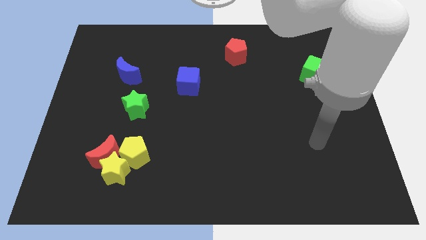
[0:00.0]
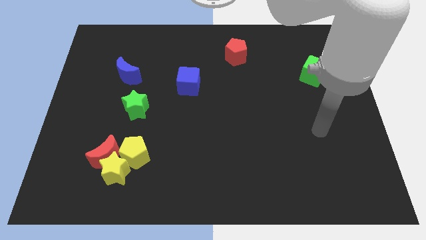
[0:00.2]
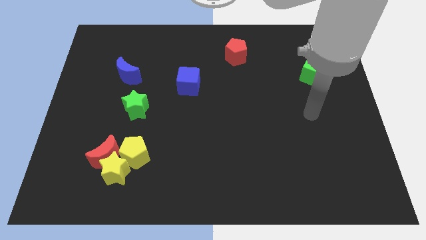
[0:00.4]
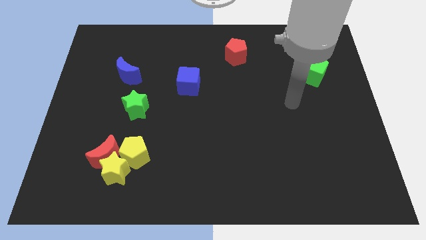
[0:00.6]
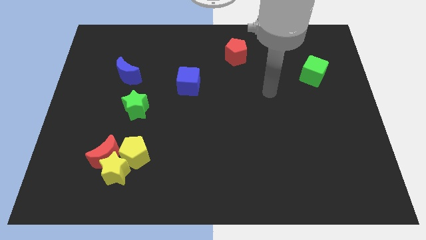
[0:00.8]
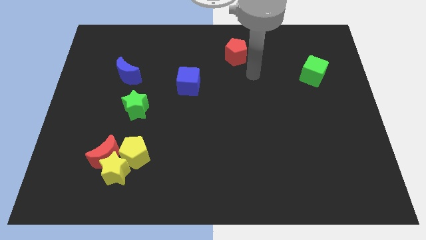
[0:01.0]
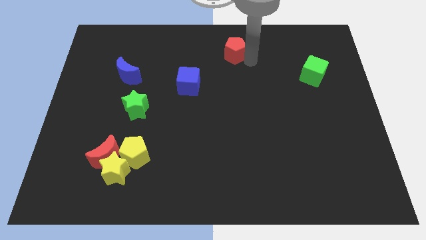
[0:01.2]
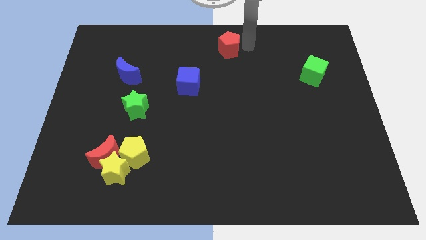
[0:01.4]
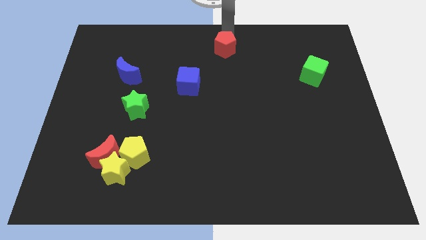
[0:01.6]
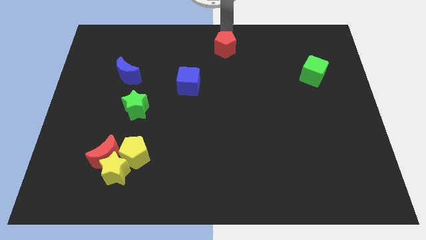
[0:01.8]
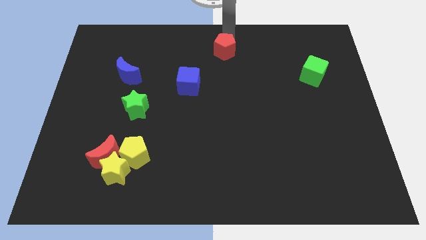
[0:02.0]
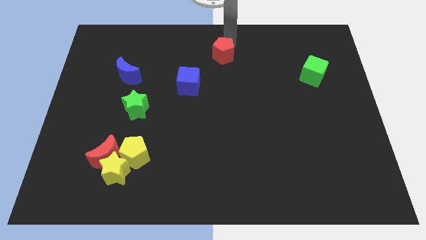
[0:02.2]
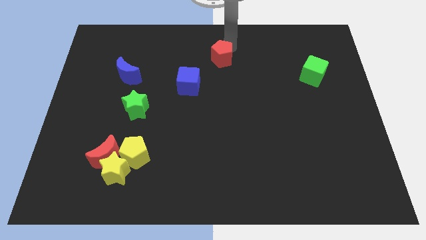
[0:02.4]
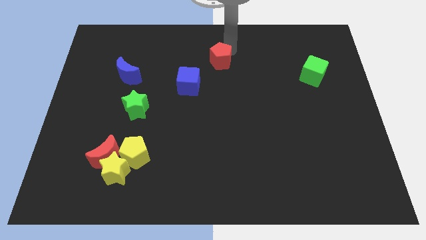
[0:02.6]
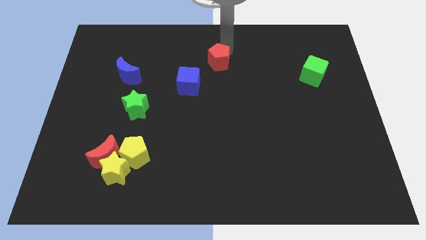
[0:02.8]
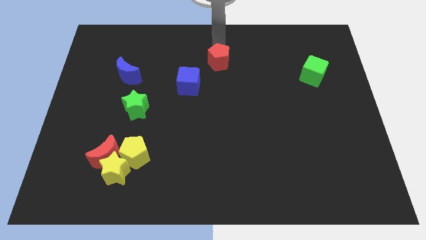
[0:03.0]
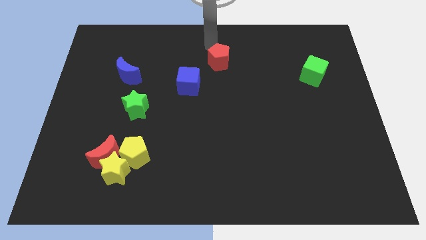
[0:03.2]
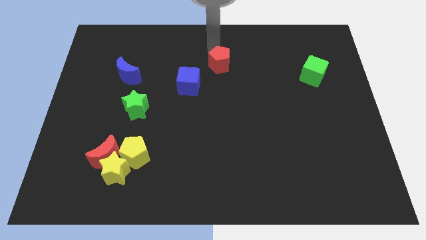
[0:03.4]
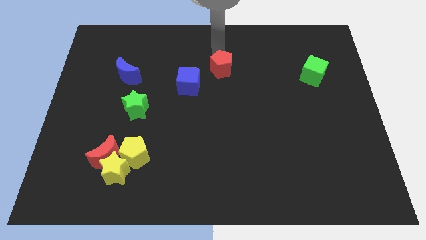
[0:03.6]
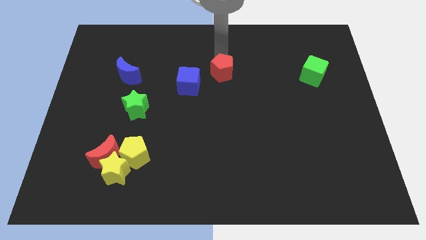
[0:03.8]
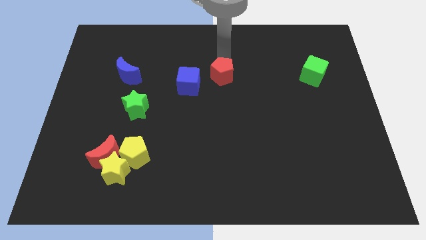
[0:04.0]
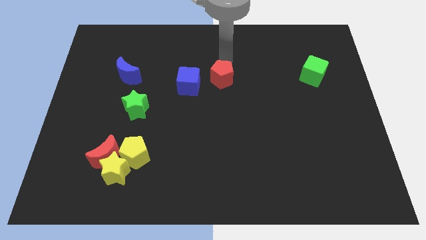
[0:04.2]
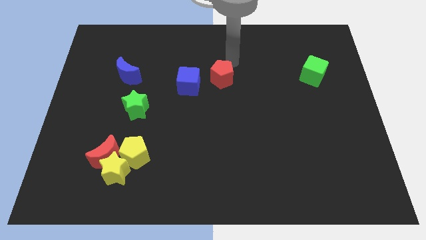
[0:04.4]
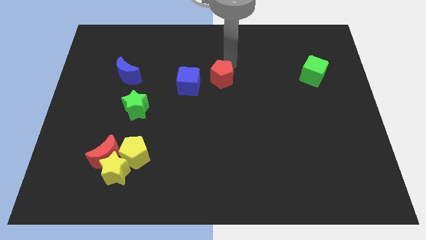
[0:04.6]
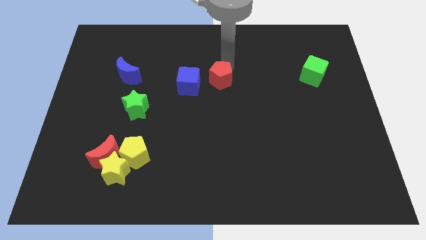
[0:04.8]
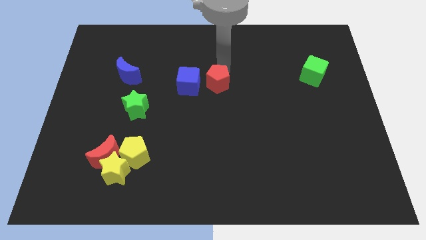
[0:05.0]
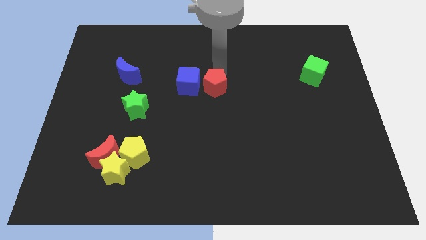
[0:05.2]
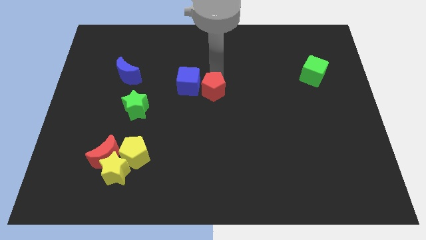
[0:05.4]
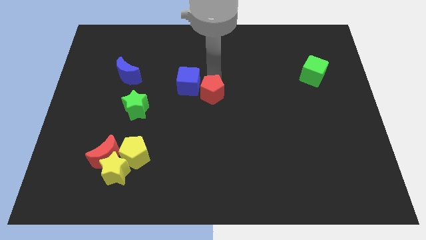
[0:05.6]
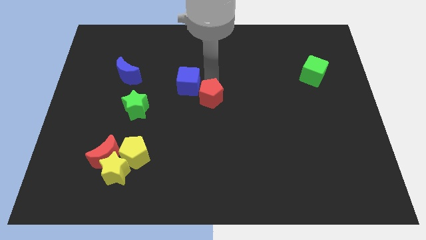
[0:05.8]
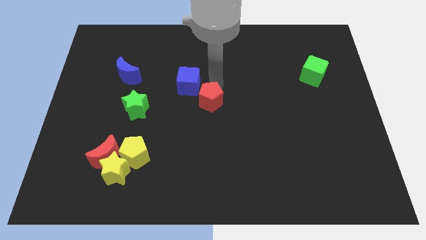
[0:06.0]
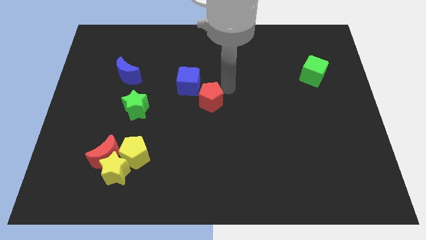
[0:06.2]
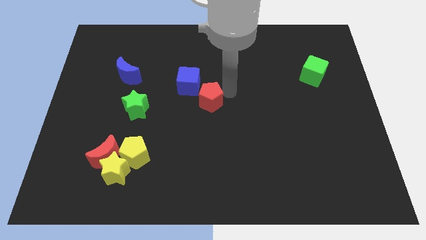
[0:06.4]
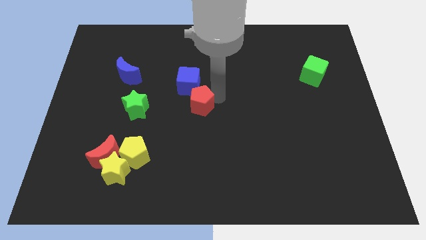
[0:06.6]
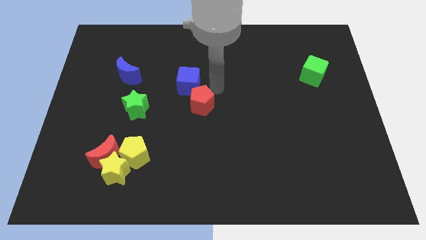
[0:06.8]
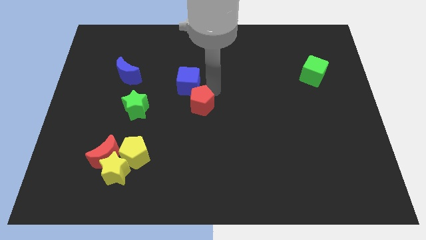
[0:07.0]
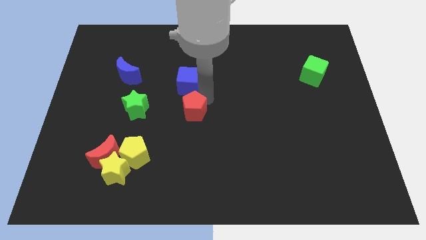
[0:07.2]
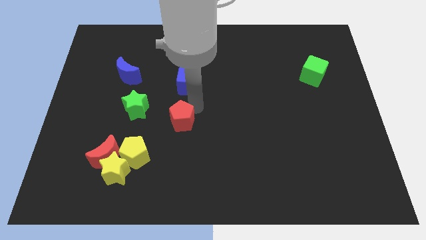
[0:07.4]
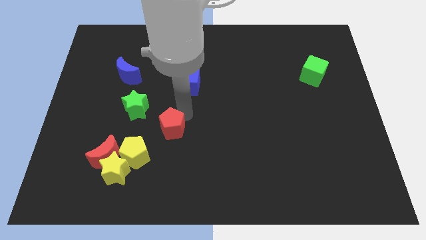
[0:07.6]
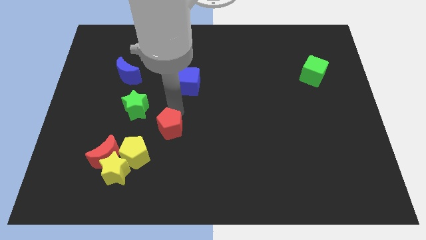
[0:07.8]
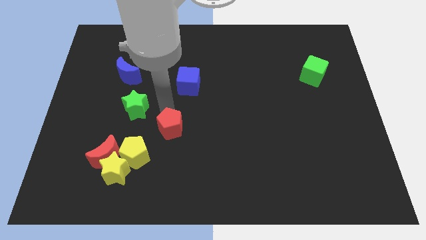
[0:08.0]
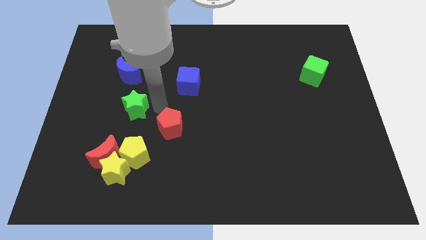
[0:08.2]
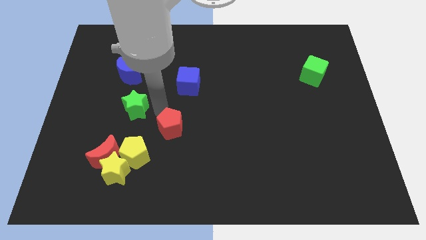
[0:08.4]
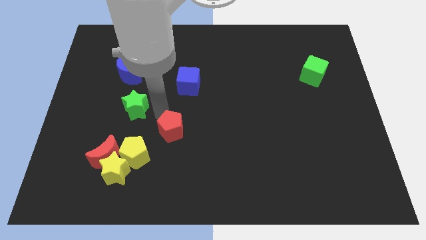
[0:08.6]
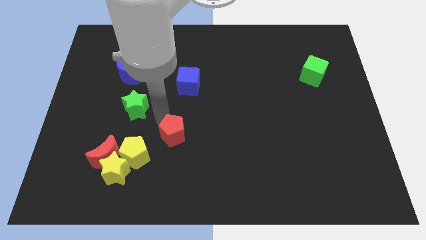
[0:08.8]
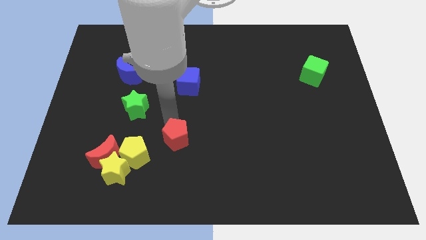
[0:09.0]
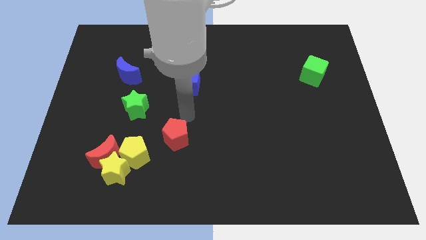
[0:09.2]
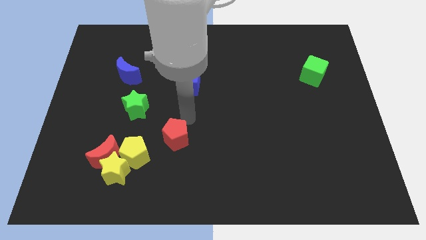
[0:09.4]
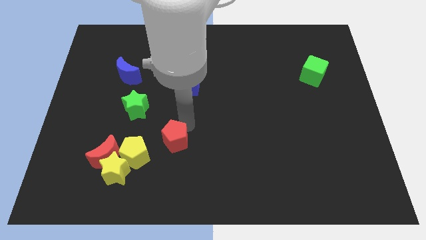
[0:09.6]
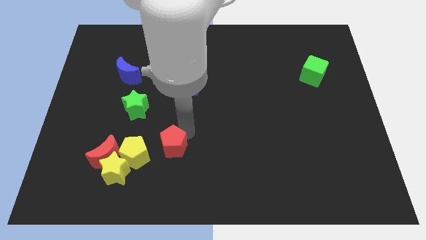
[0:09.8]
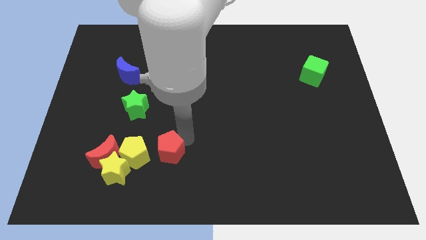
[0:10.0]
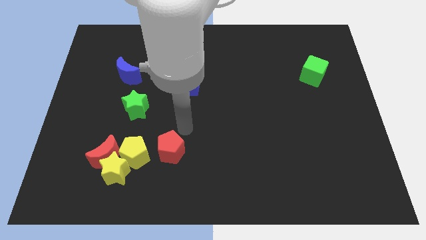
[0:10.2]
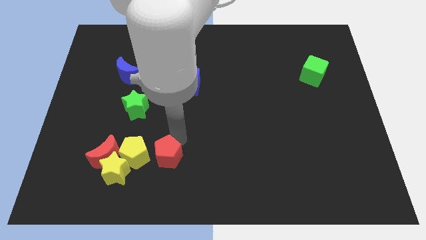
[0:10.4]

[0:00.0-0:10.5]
slide the red pentagon to the bottom right side of the yellow pentagon

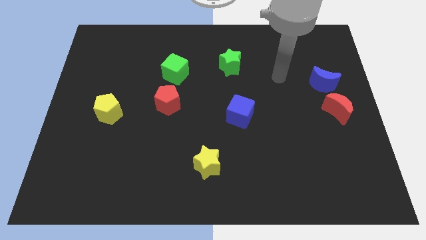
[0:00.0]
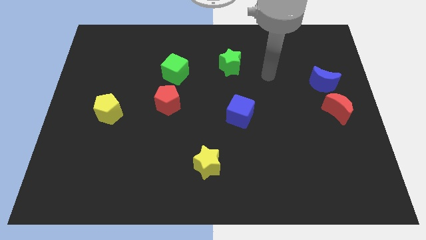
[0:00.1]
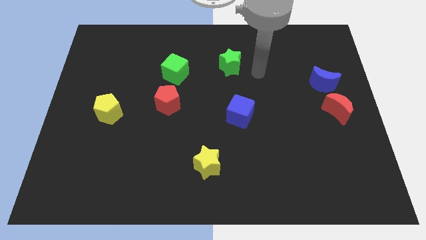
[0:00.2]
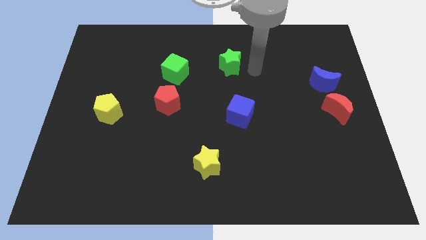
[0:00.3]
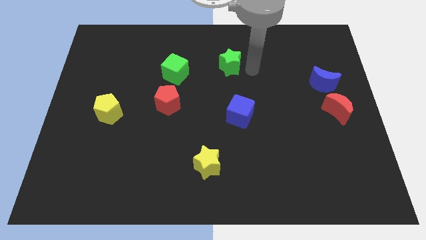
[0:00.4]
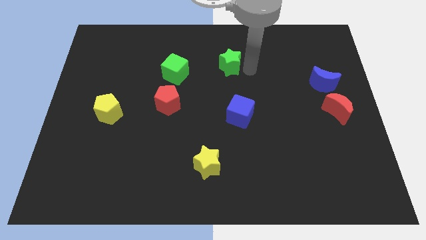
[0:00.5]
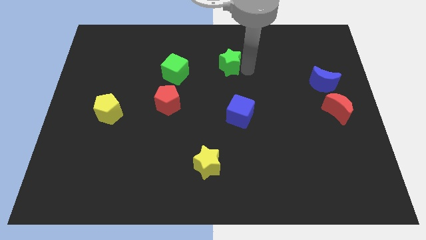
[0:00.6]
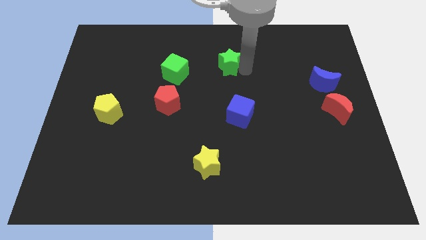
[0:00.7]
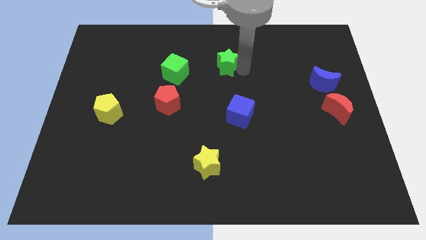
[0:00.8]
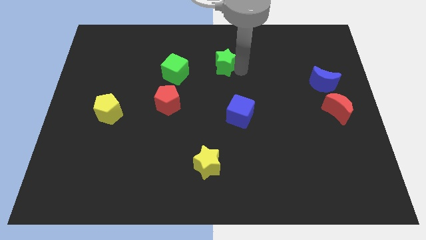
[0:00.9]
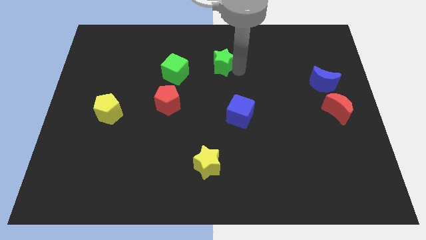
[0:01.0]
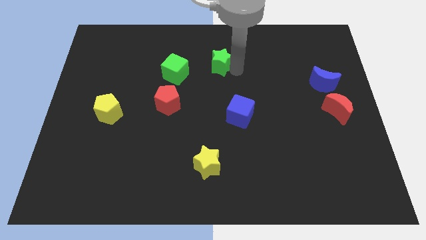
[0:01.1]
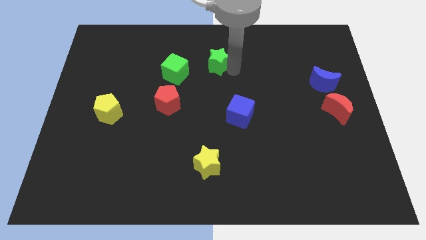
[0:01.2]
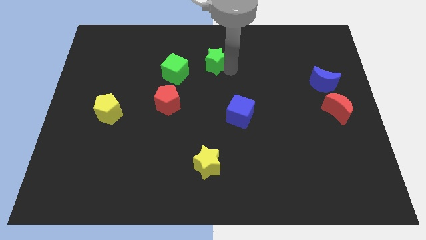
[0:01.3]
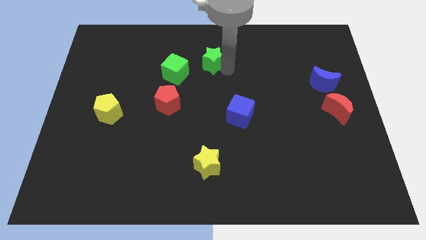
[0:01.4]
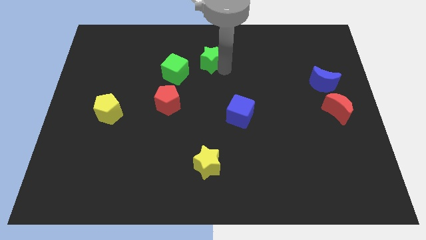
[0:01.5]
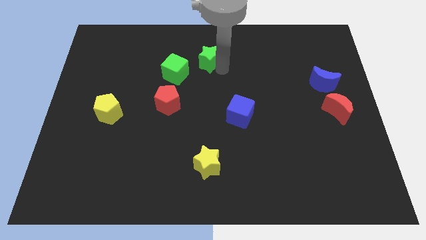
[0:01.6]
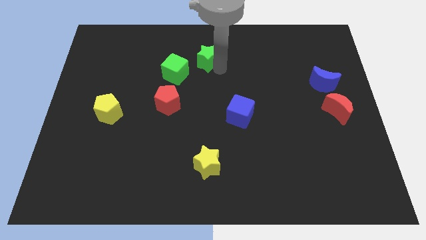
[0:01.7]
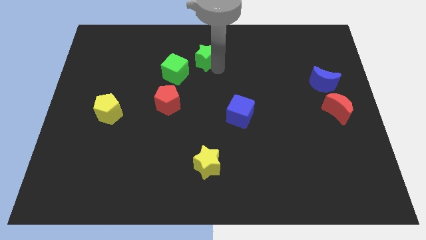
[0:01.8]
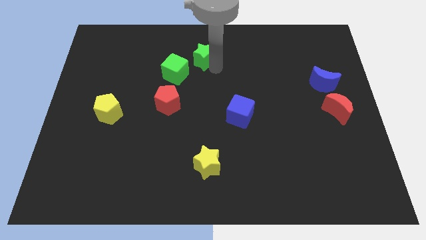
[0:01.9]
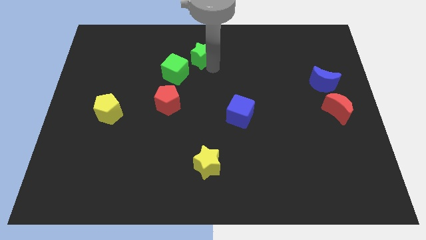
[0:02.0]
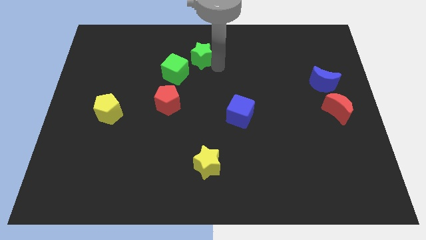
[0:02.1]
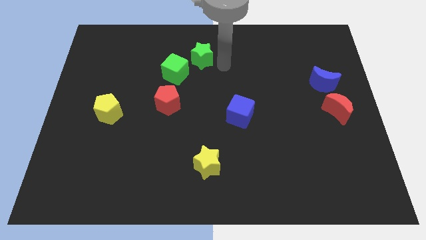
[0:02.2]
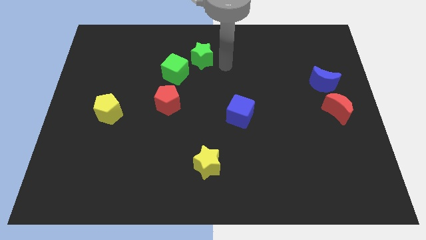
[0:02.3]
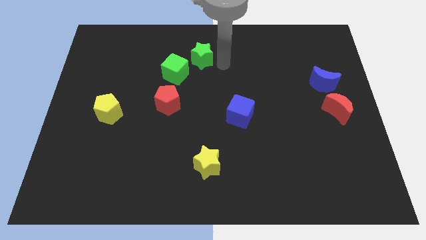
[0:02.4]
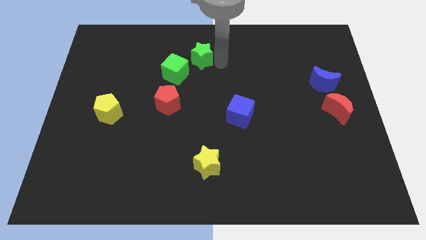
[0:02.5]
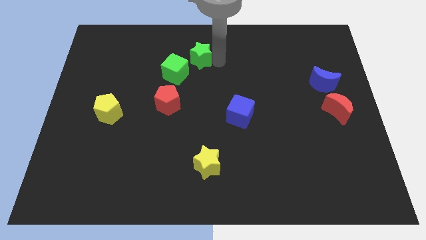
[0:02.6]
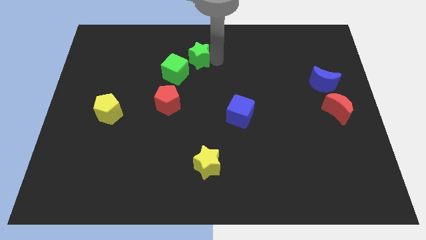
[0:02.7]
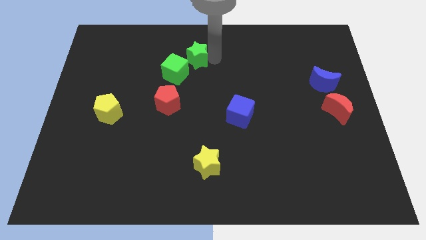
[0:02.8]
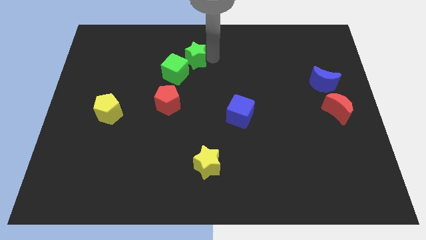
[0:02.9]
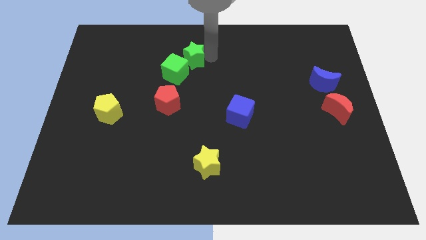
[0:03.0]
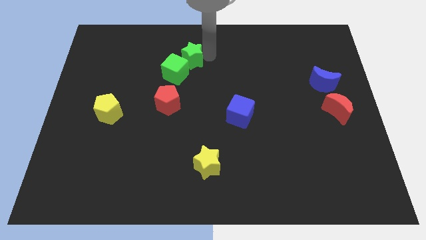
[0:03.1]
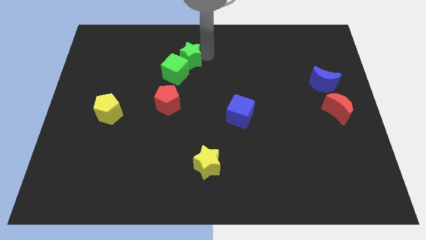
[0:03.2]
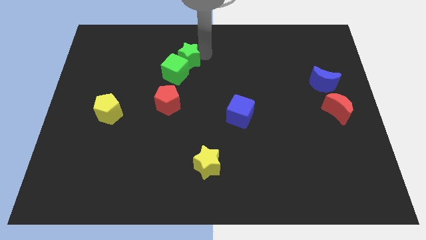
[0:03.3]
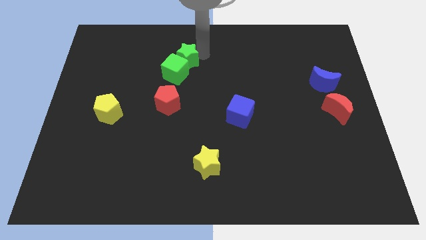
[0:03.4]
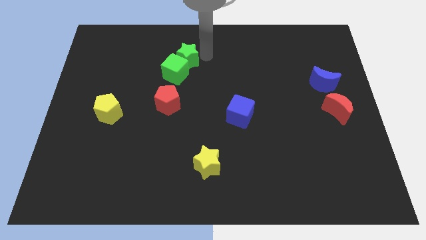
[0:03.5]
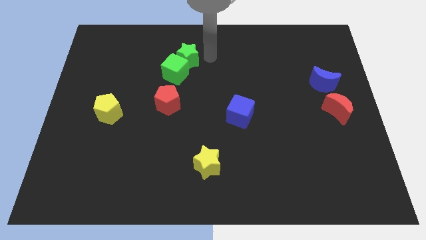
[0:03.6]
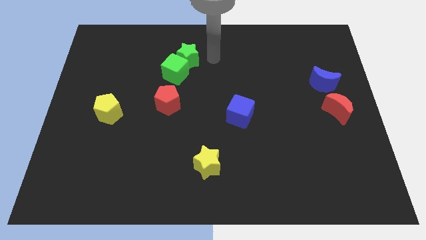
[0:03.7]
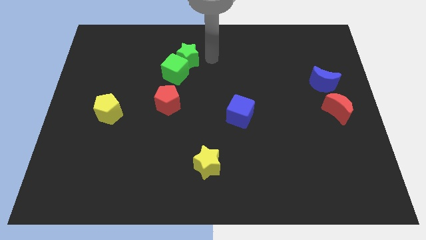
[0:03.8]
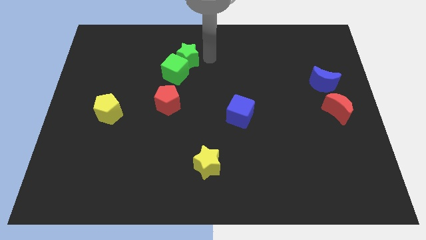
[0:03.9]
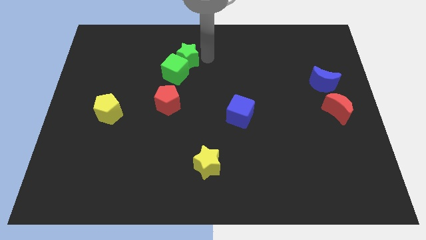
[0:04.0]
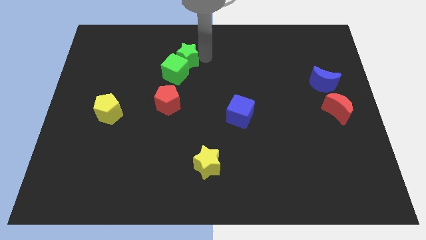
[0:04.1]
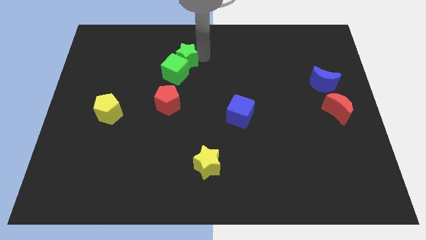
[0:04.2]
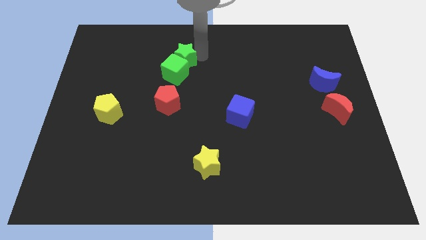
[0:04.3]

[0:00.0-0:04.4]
push the green star to the top side of the red pentagon
